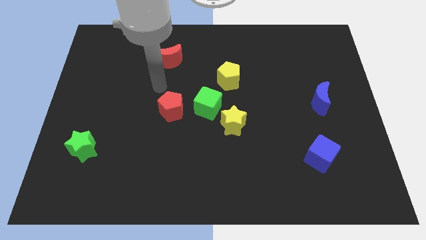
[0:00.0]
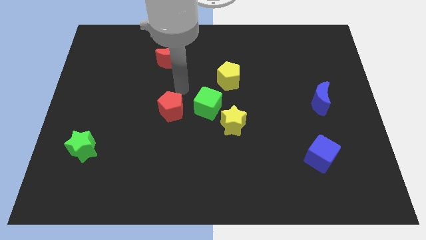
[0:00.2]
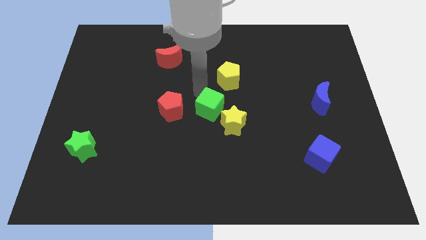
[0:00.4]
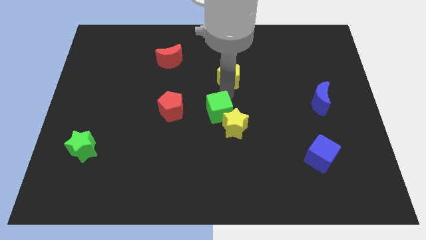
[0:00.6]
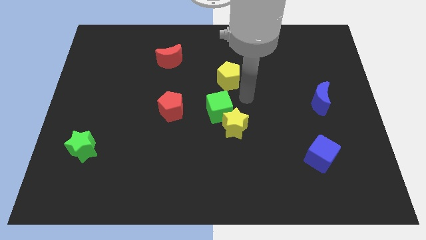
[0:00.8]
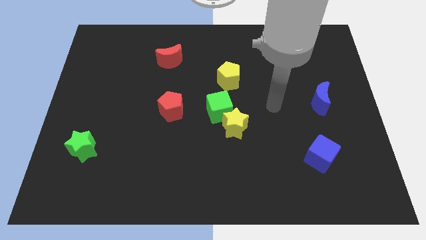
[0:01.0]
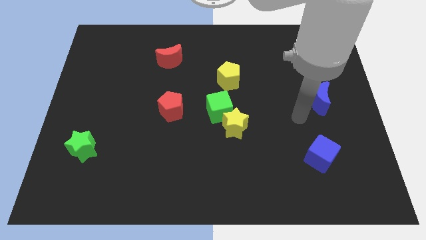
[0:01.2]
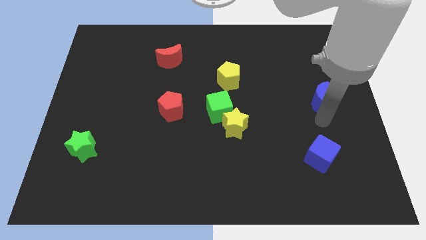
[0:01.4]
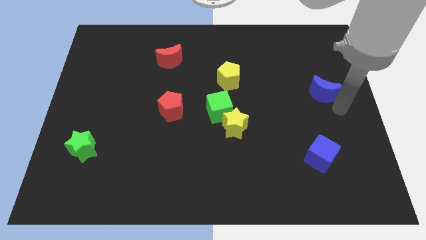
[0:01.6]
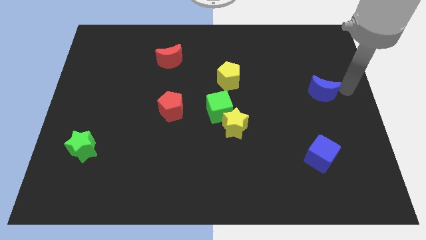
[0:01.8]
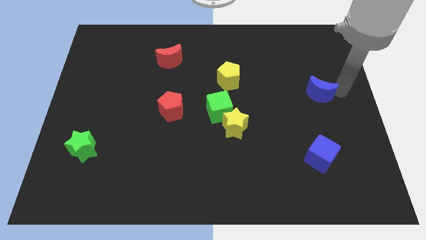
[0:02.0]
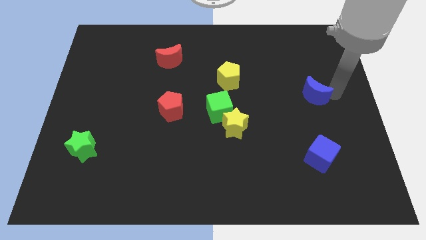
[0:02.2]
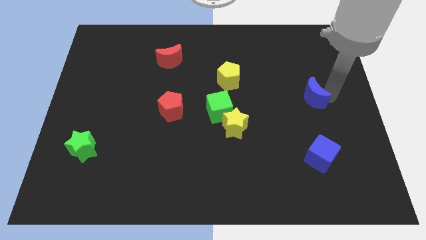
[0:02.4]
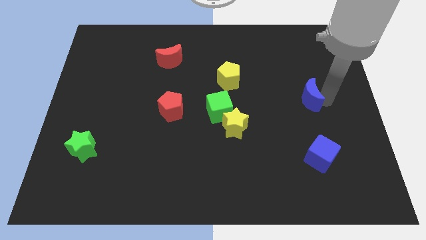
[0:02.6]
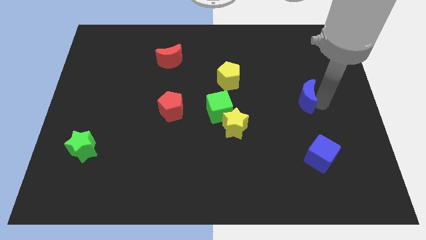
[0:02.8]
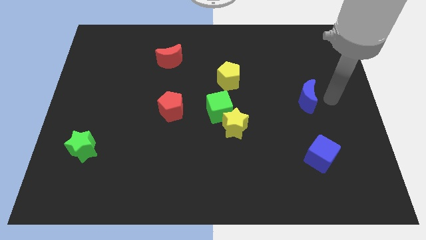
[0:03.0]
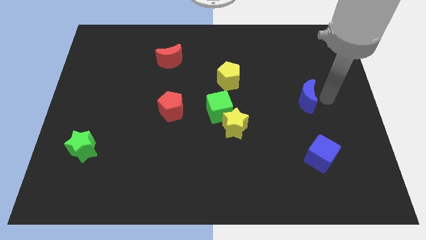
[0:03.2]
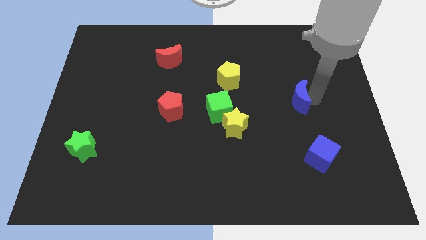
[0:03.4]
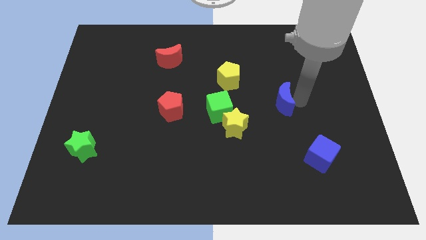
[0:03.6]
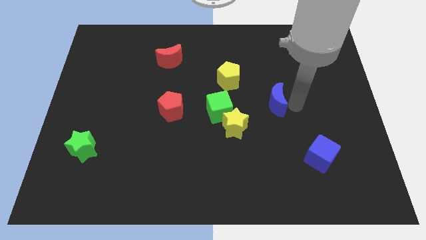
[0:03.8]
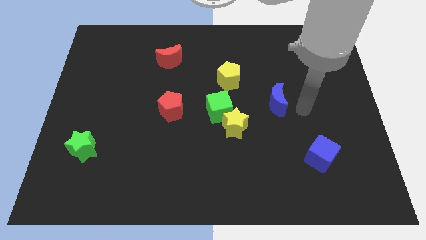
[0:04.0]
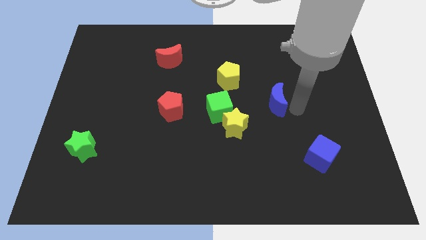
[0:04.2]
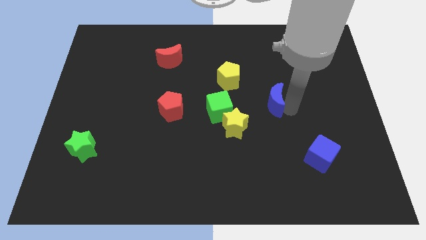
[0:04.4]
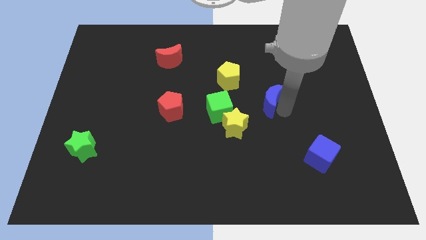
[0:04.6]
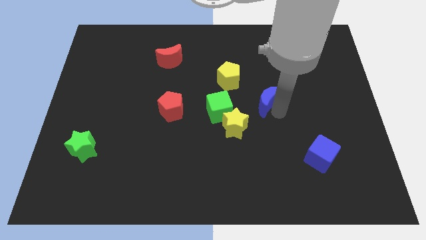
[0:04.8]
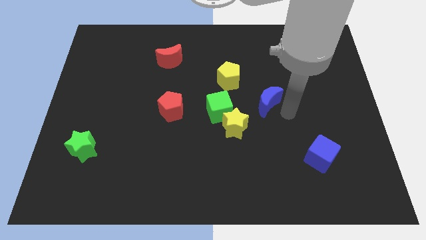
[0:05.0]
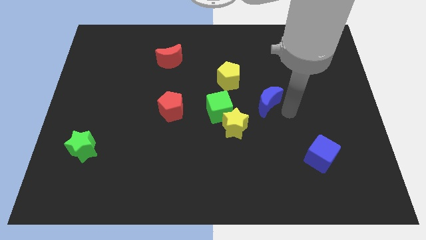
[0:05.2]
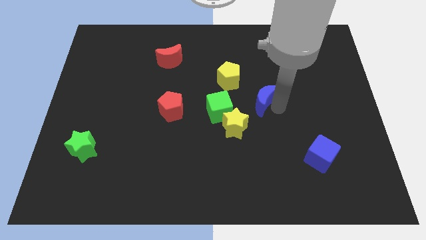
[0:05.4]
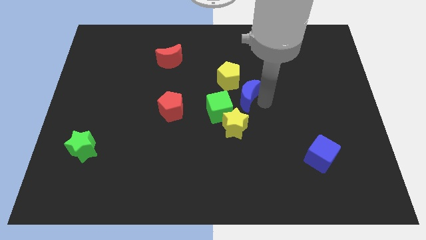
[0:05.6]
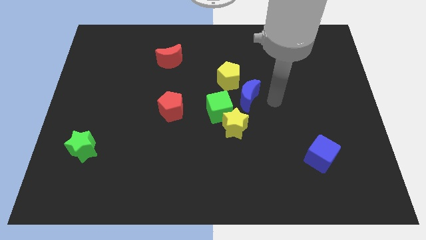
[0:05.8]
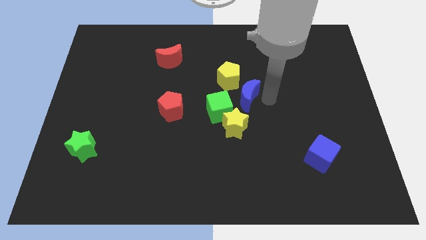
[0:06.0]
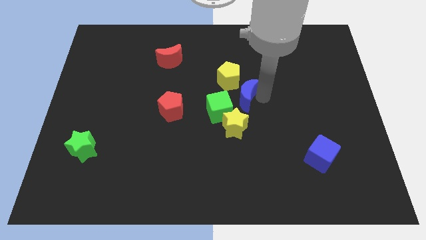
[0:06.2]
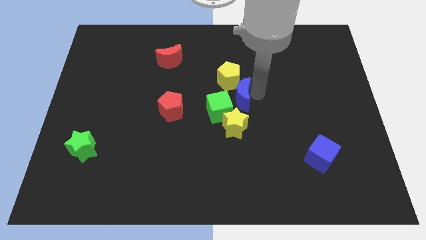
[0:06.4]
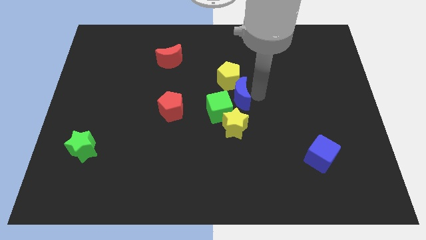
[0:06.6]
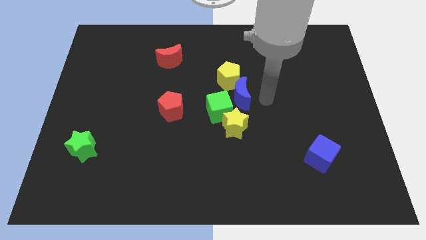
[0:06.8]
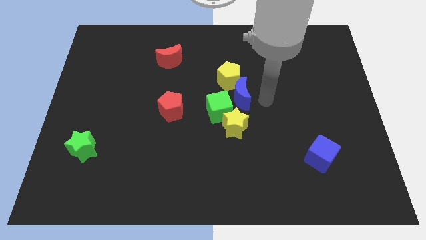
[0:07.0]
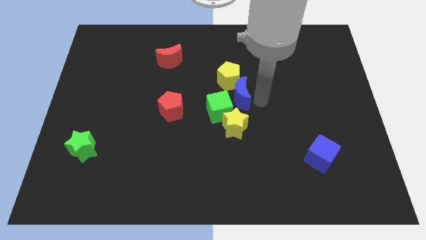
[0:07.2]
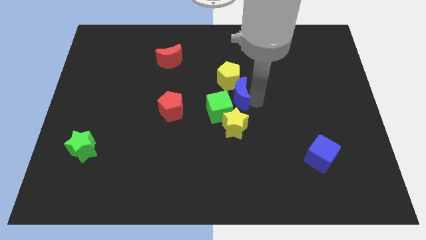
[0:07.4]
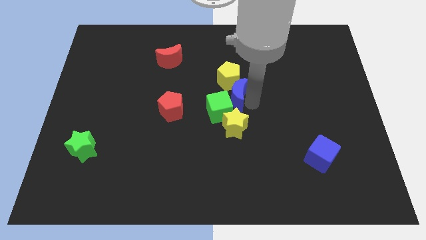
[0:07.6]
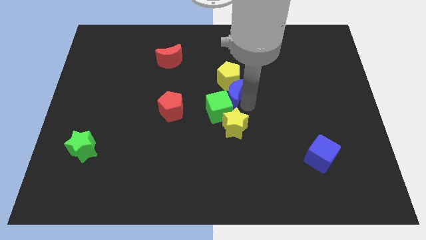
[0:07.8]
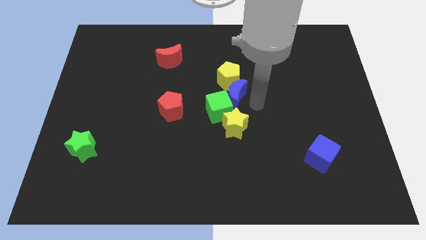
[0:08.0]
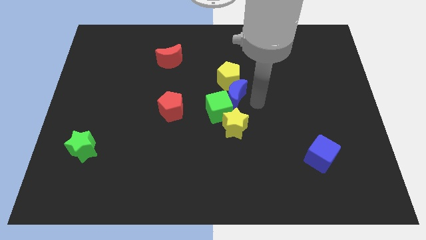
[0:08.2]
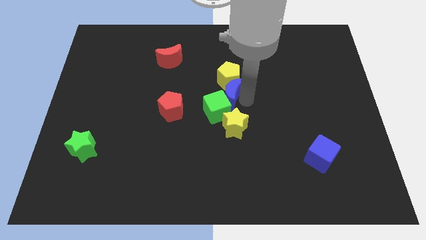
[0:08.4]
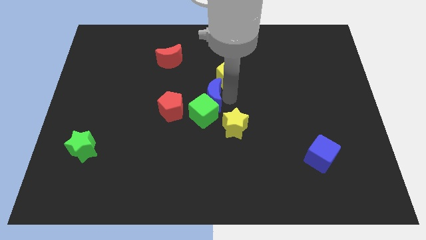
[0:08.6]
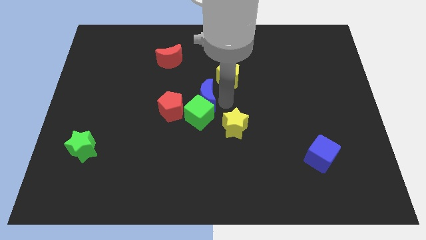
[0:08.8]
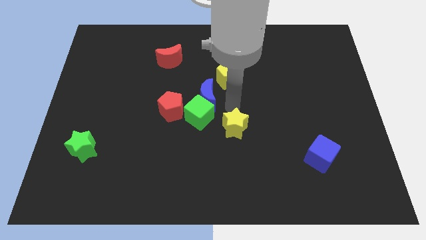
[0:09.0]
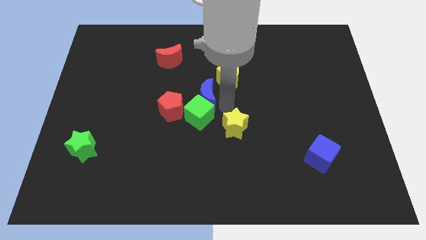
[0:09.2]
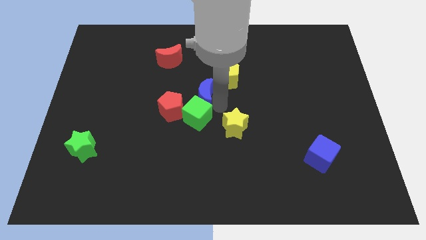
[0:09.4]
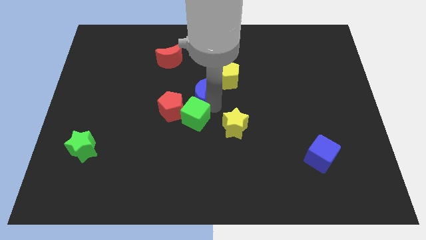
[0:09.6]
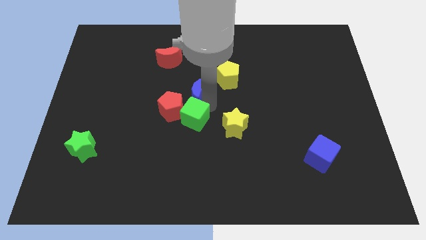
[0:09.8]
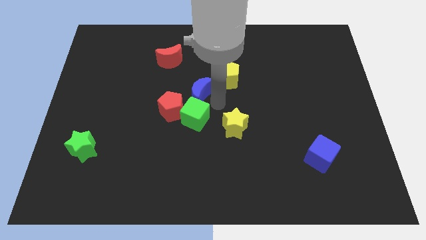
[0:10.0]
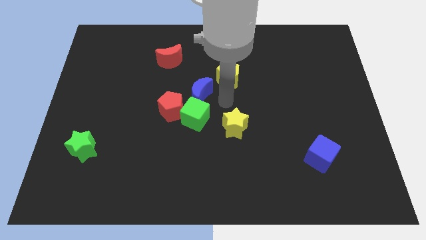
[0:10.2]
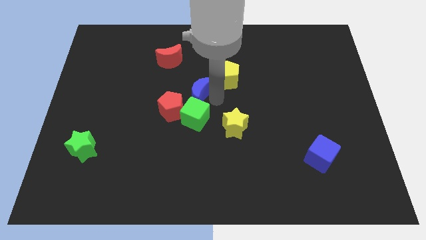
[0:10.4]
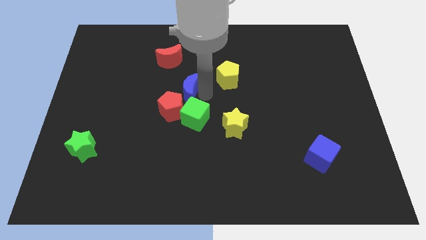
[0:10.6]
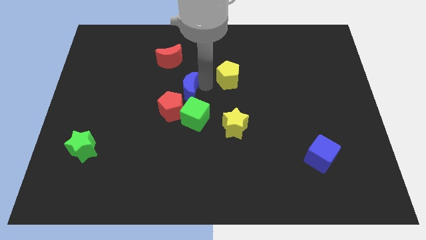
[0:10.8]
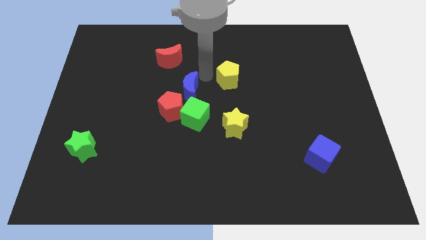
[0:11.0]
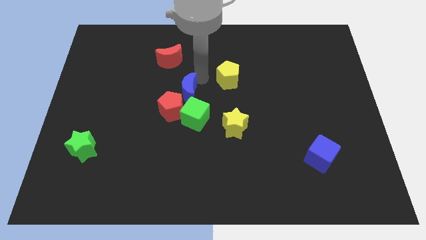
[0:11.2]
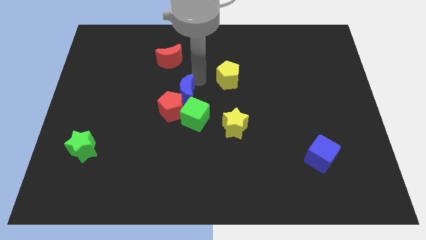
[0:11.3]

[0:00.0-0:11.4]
slide the blue moon towards the red pentagon
